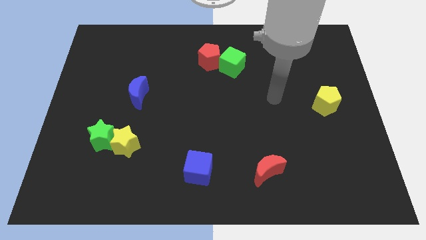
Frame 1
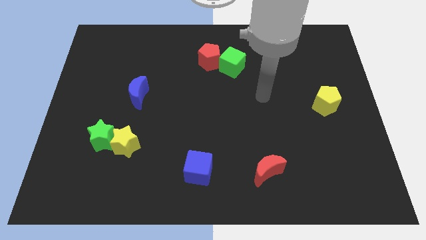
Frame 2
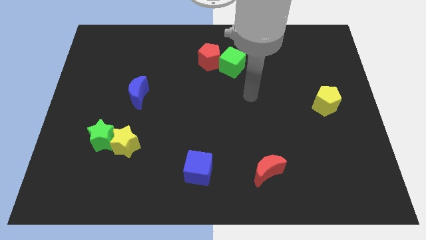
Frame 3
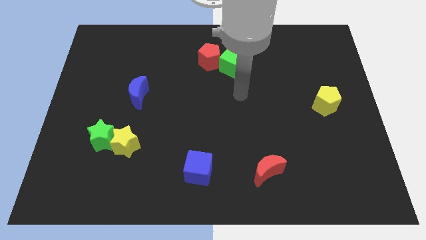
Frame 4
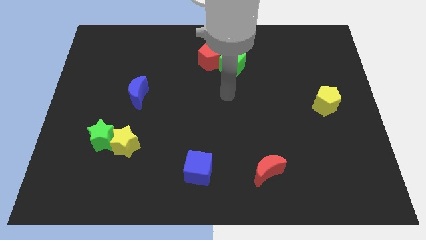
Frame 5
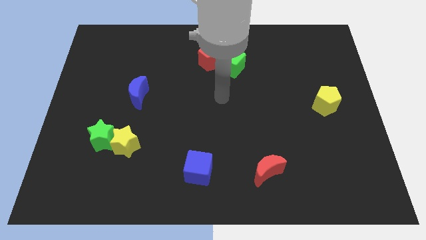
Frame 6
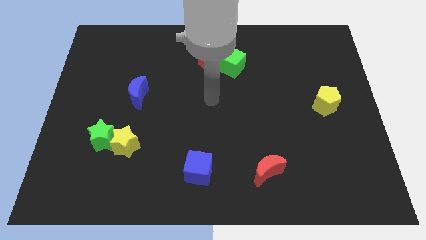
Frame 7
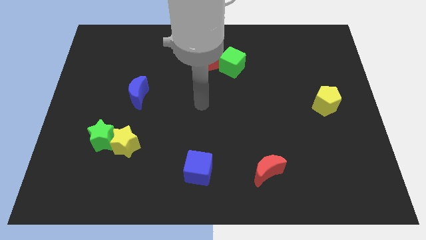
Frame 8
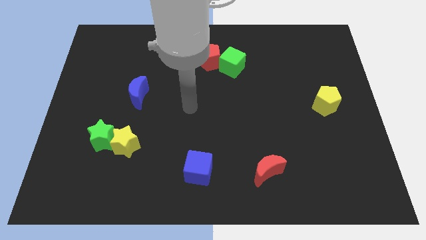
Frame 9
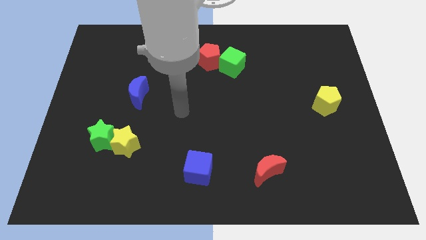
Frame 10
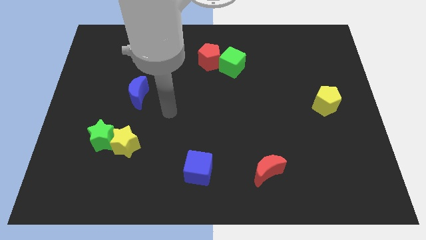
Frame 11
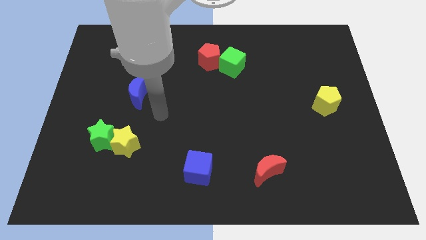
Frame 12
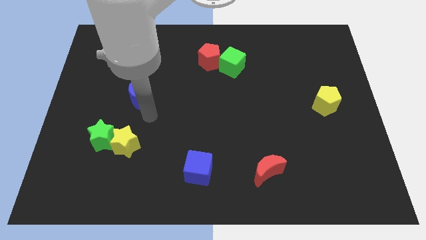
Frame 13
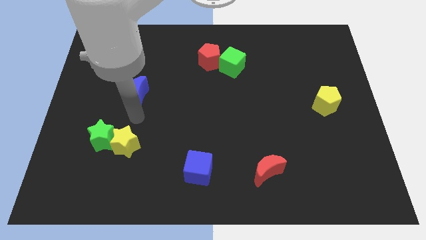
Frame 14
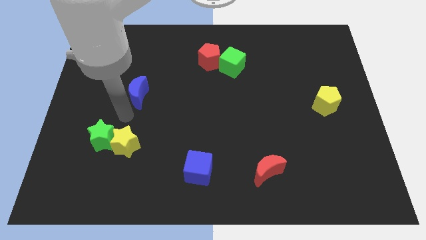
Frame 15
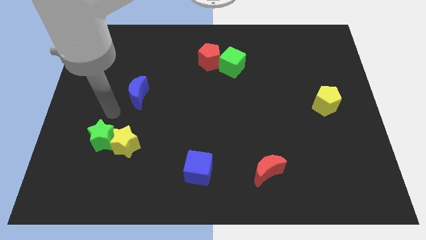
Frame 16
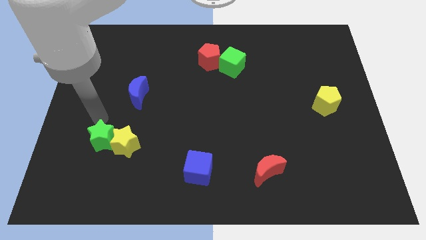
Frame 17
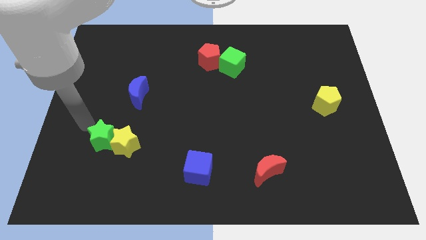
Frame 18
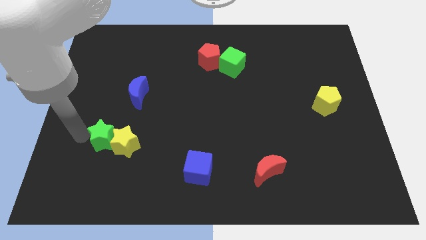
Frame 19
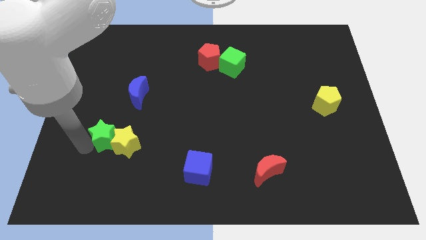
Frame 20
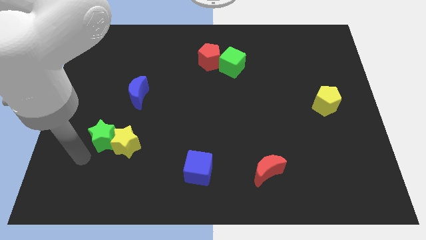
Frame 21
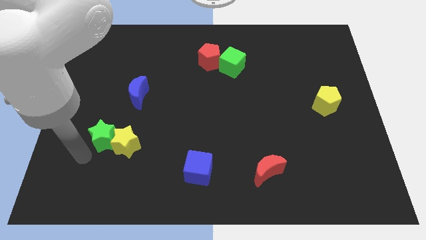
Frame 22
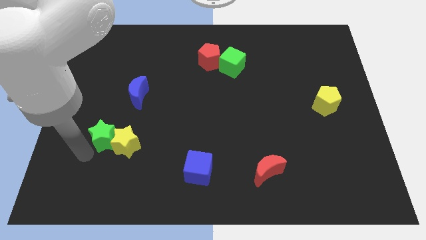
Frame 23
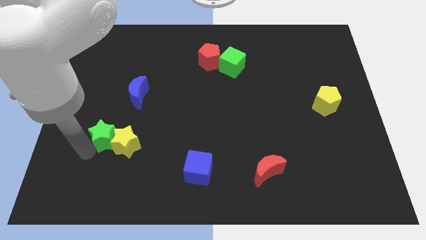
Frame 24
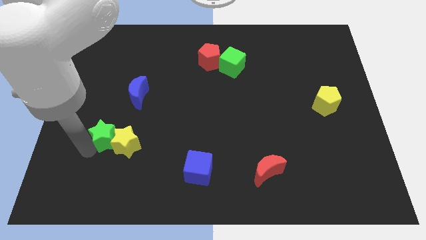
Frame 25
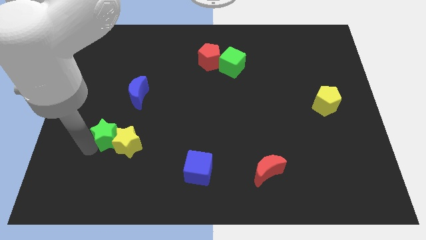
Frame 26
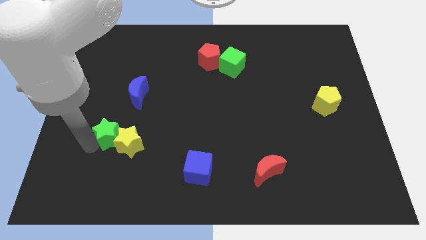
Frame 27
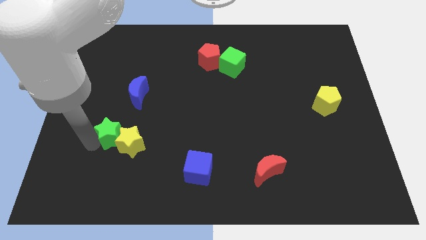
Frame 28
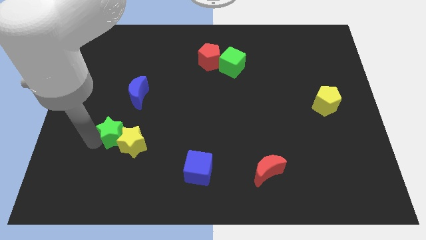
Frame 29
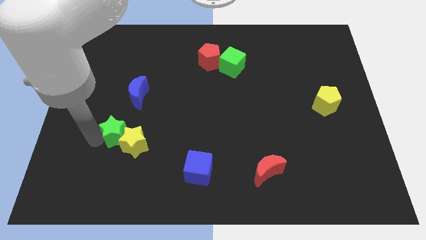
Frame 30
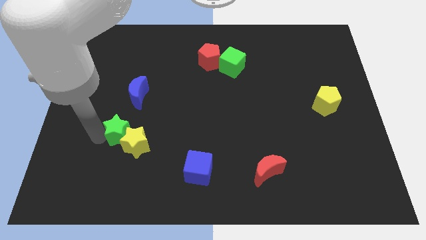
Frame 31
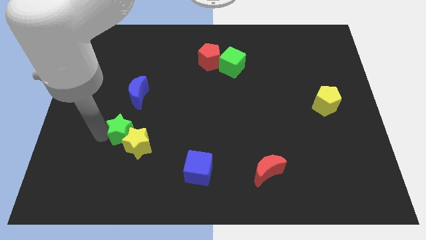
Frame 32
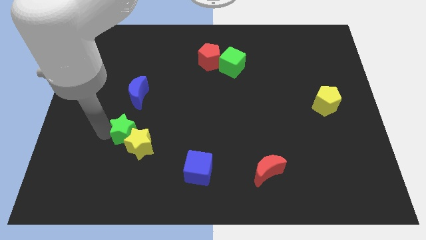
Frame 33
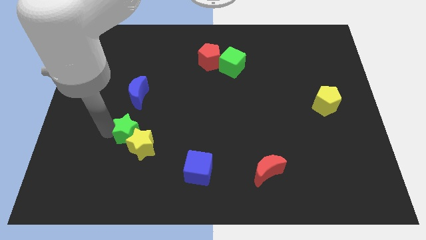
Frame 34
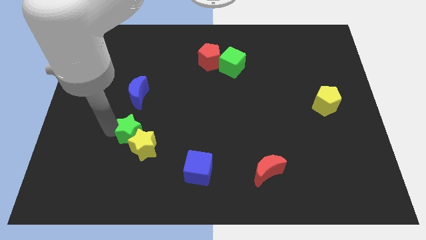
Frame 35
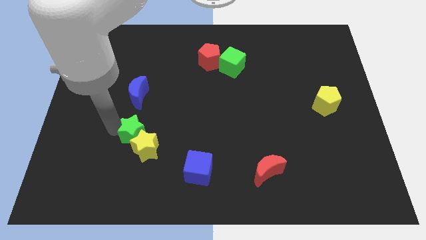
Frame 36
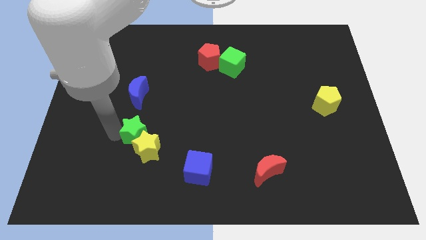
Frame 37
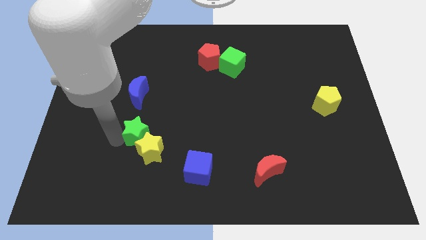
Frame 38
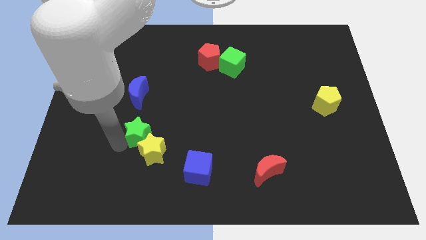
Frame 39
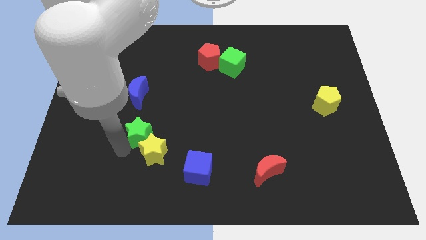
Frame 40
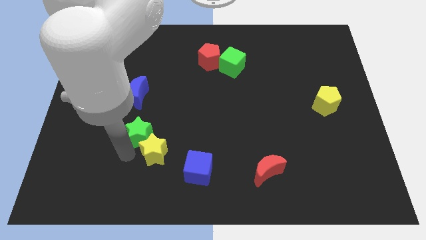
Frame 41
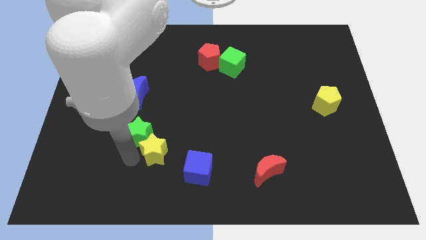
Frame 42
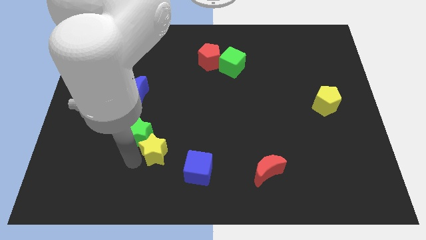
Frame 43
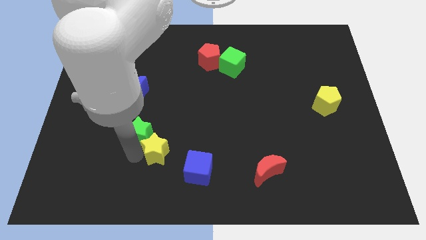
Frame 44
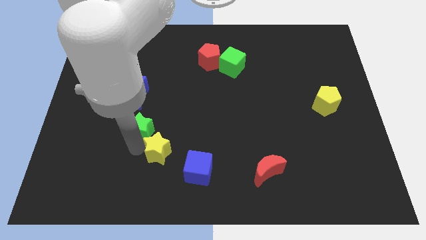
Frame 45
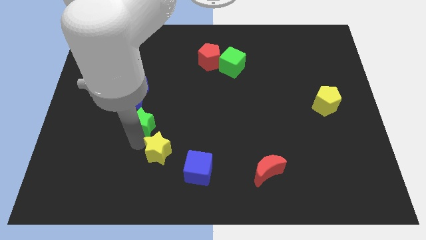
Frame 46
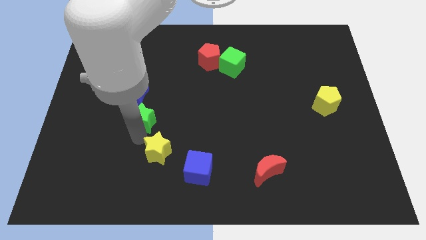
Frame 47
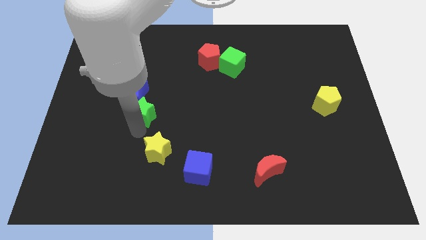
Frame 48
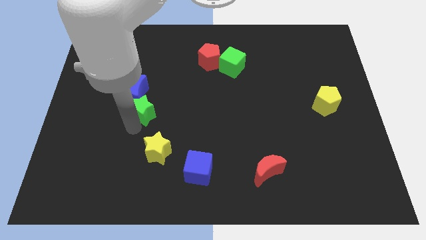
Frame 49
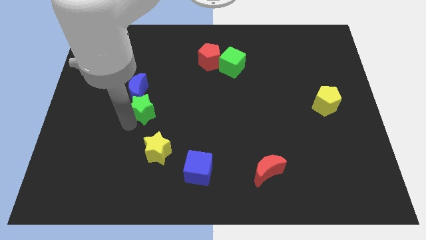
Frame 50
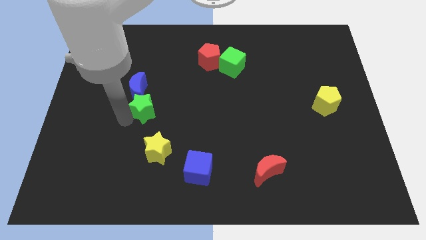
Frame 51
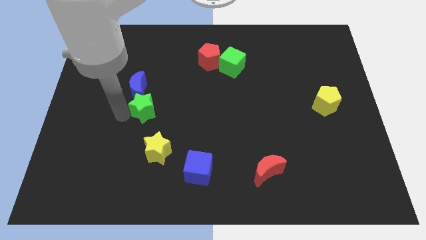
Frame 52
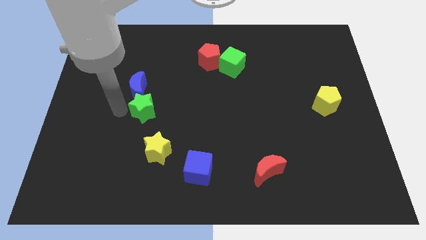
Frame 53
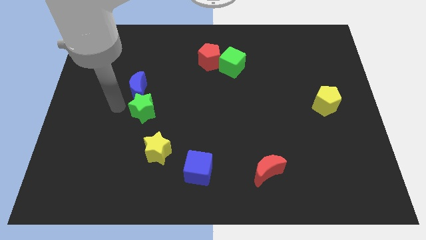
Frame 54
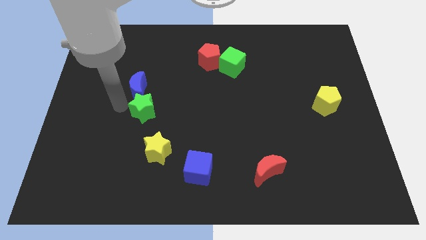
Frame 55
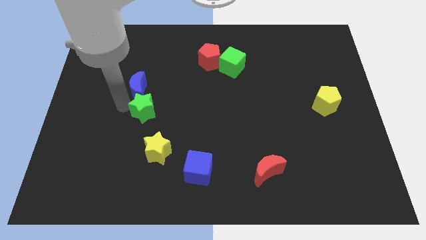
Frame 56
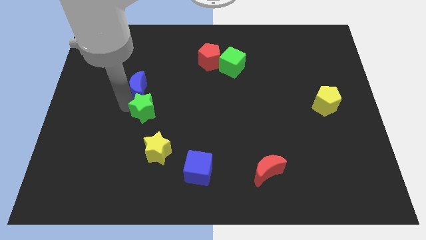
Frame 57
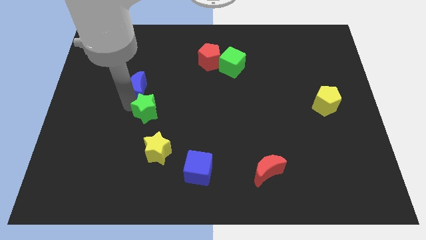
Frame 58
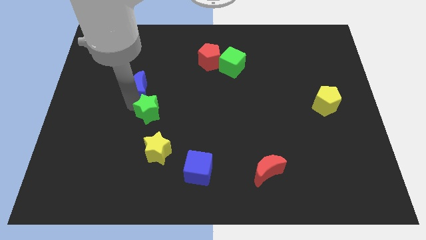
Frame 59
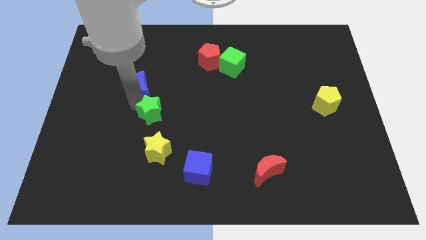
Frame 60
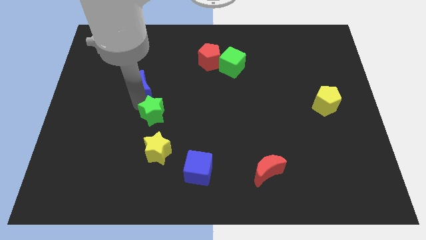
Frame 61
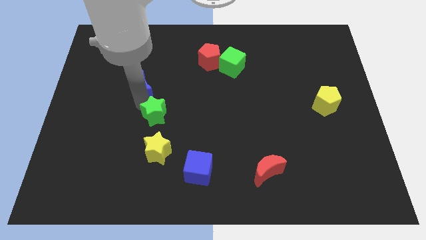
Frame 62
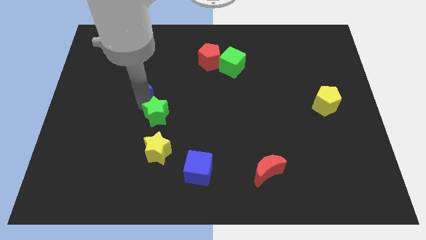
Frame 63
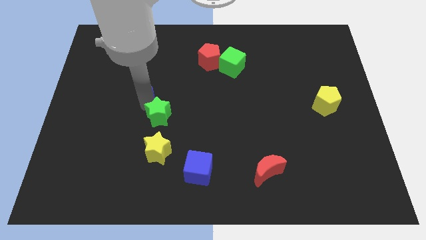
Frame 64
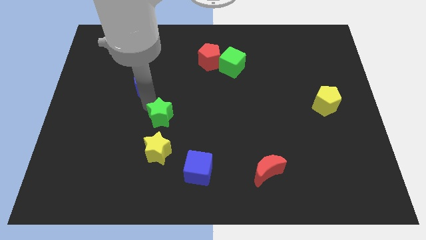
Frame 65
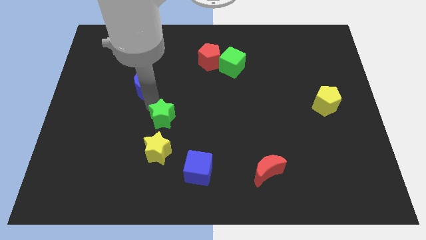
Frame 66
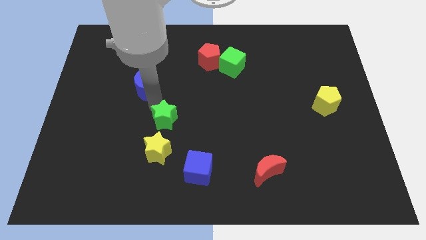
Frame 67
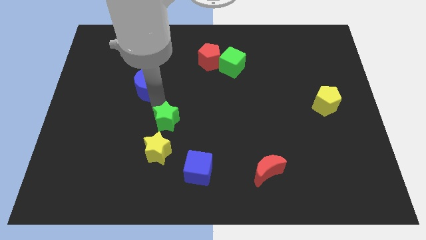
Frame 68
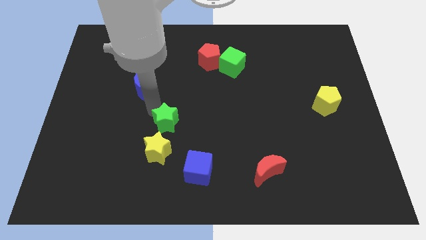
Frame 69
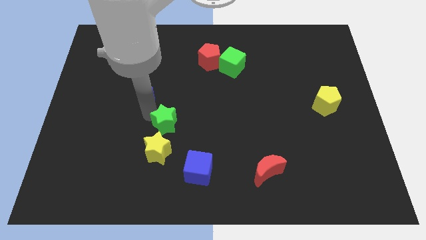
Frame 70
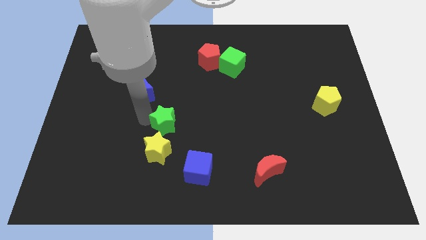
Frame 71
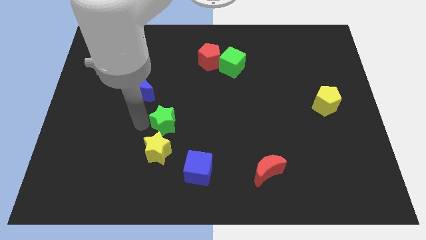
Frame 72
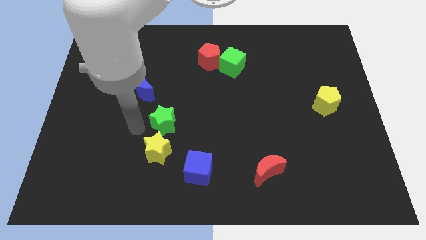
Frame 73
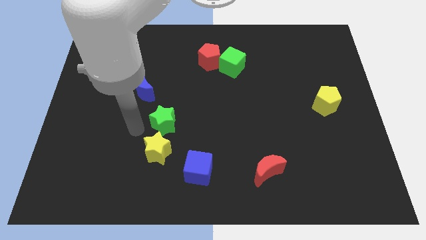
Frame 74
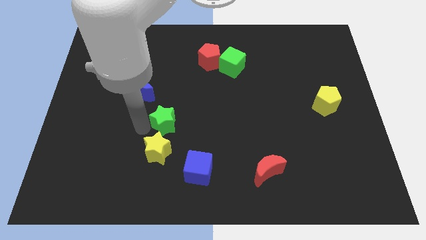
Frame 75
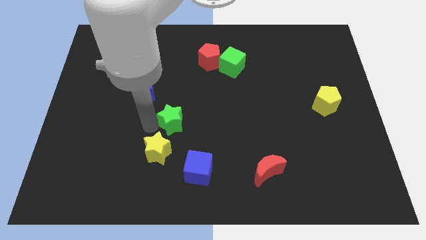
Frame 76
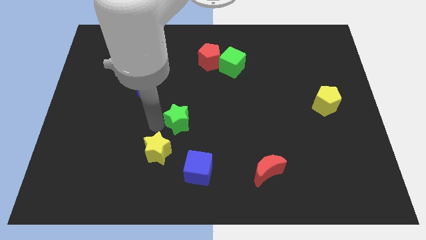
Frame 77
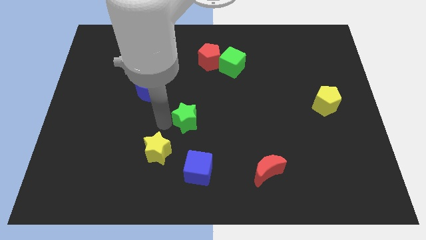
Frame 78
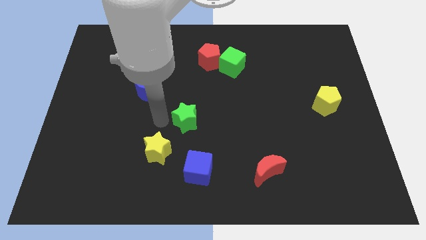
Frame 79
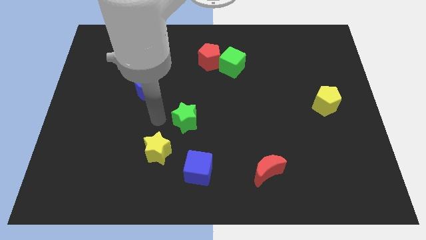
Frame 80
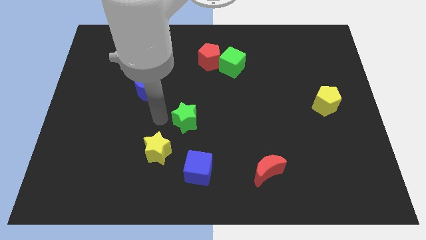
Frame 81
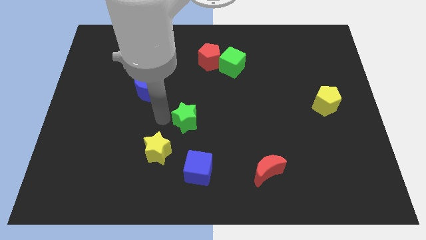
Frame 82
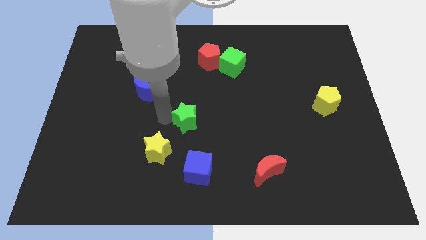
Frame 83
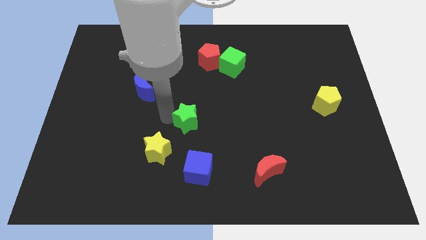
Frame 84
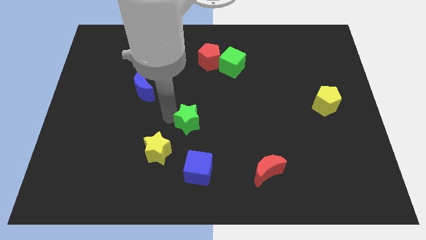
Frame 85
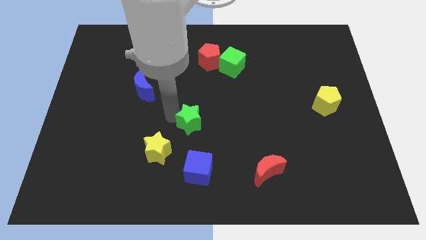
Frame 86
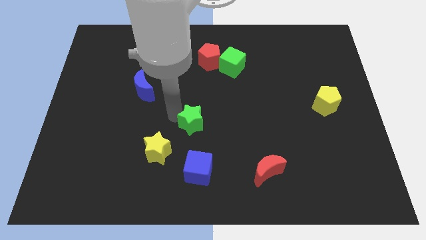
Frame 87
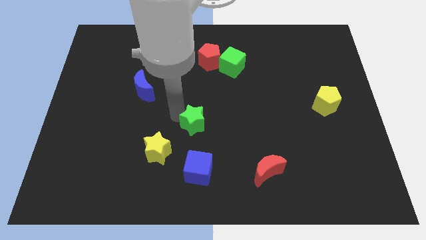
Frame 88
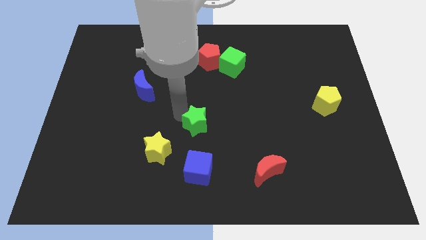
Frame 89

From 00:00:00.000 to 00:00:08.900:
push the green star to the right
